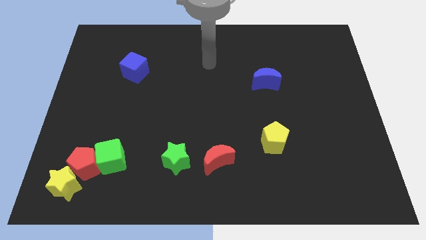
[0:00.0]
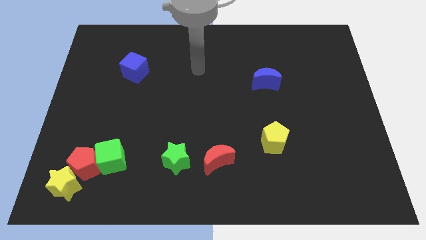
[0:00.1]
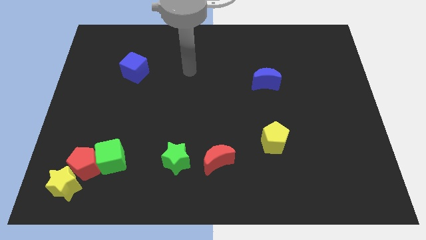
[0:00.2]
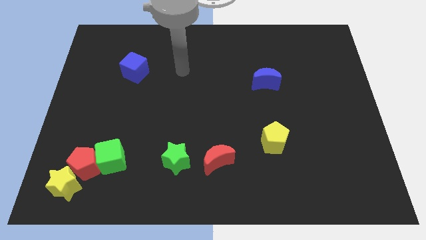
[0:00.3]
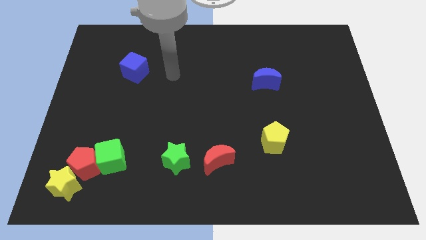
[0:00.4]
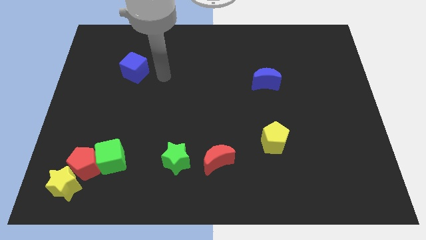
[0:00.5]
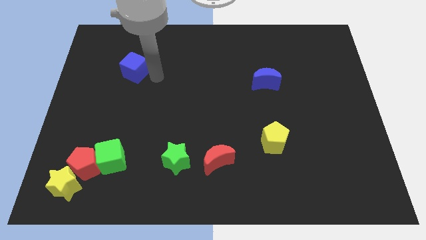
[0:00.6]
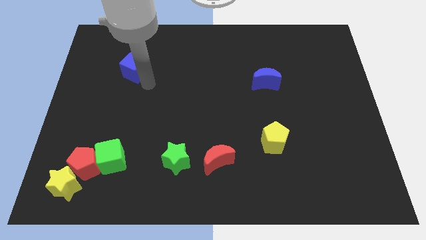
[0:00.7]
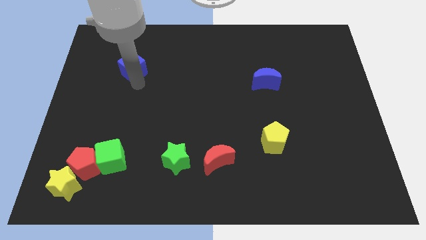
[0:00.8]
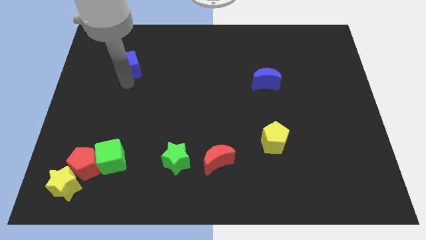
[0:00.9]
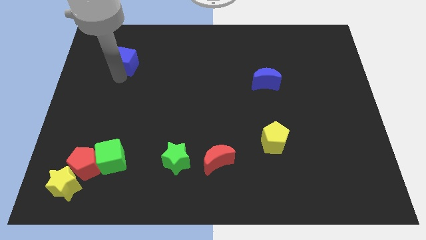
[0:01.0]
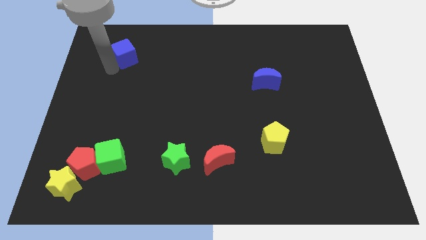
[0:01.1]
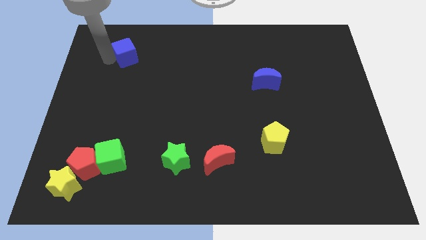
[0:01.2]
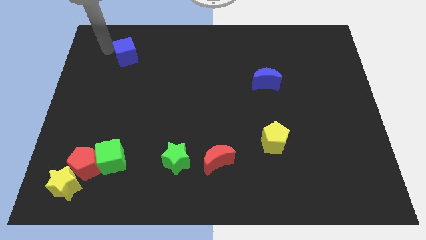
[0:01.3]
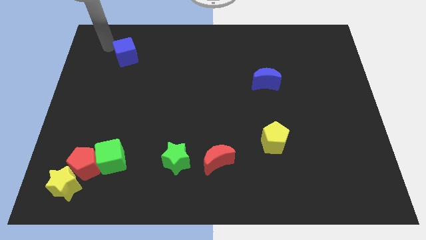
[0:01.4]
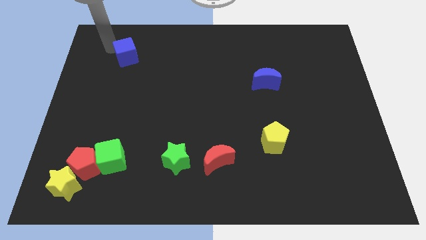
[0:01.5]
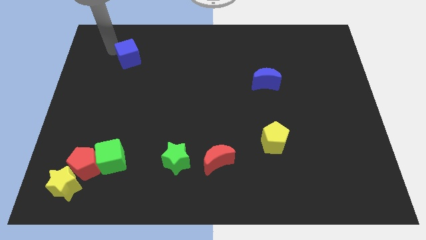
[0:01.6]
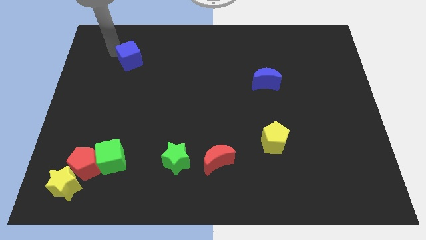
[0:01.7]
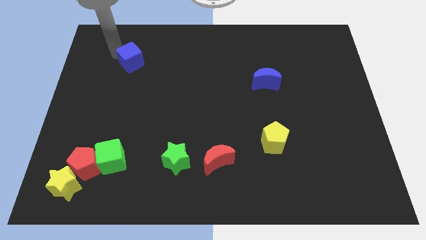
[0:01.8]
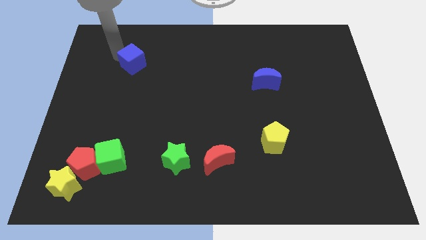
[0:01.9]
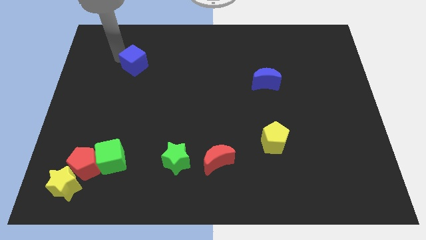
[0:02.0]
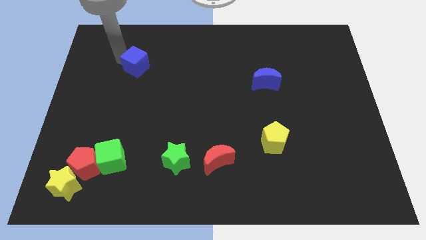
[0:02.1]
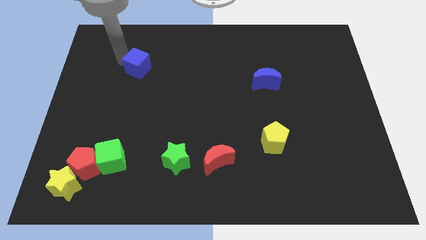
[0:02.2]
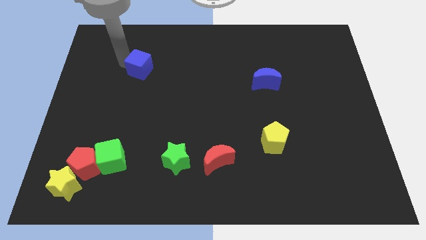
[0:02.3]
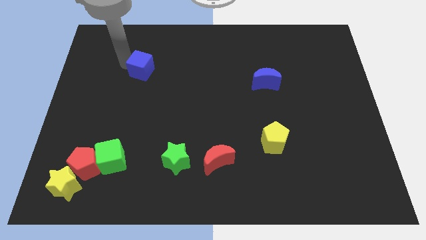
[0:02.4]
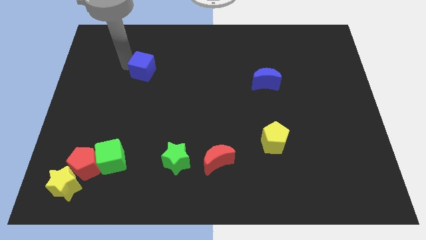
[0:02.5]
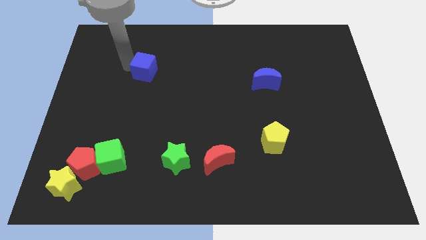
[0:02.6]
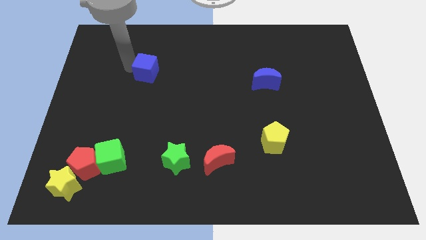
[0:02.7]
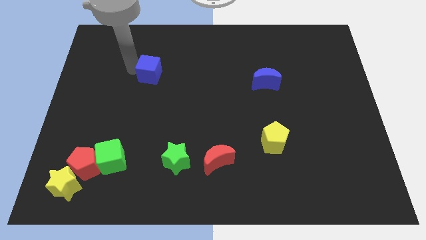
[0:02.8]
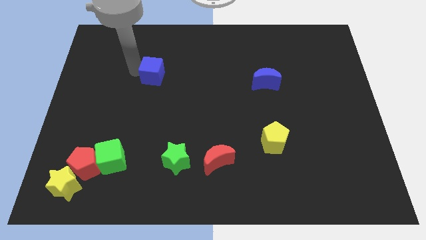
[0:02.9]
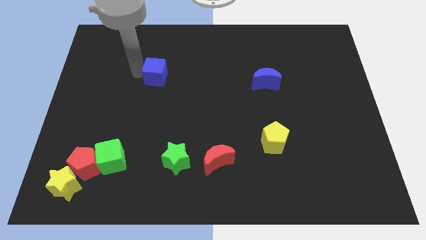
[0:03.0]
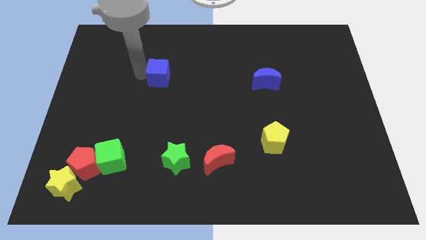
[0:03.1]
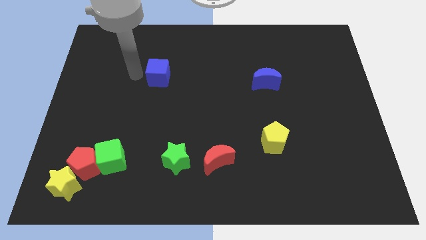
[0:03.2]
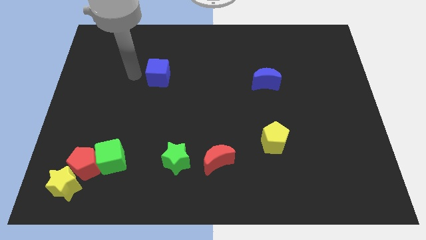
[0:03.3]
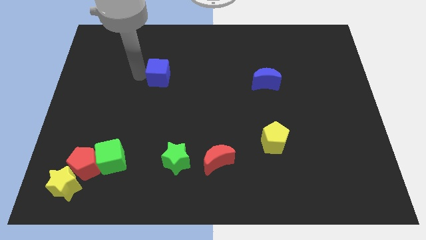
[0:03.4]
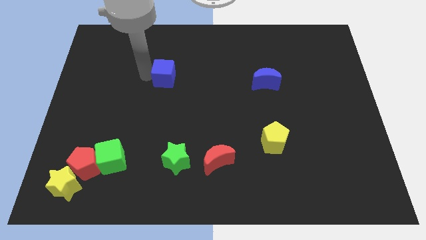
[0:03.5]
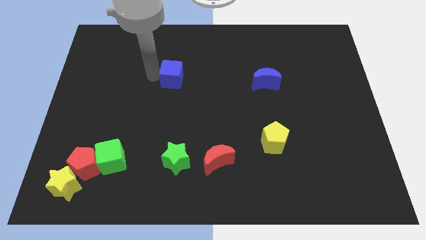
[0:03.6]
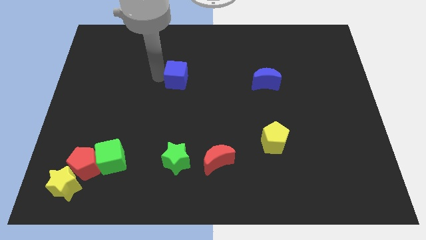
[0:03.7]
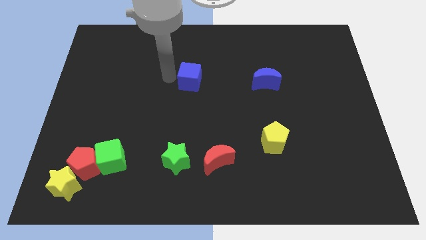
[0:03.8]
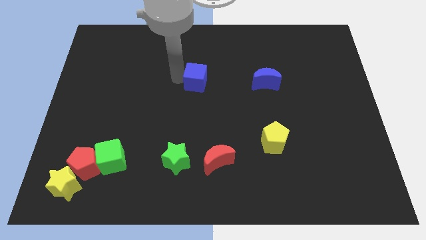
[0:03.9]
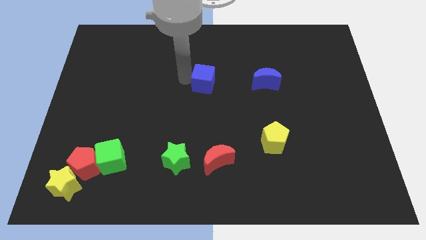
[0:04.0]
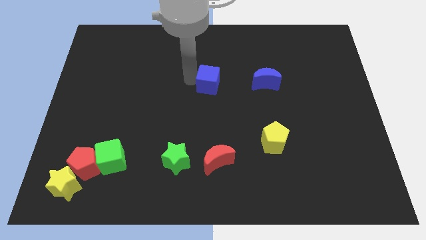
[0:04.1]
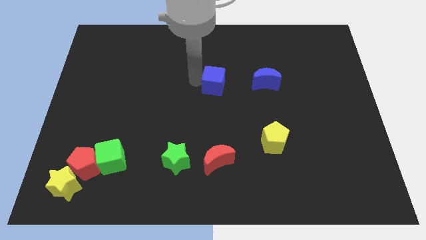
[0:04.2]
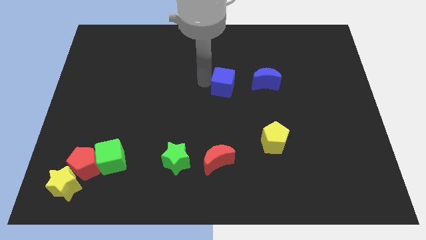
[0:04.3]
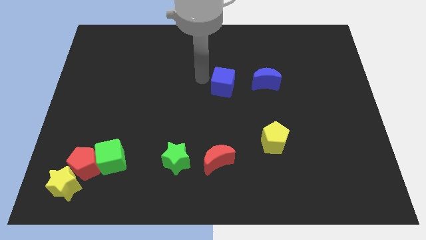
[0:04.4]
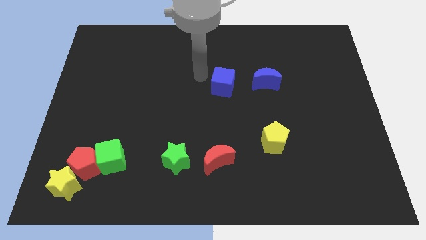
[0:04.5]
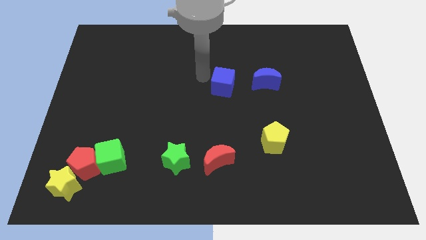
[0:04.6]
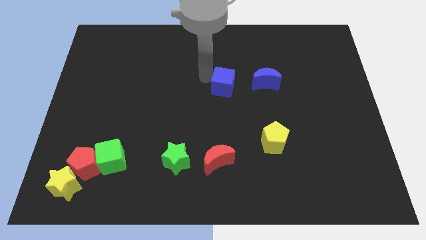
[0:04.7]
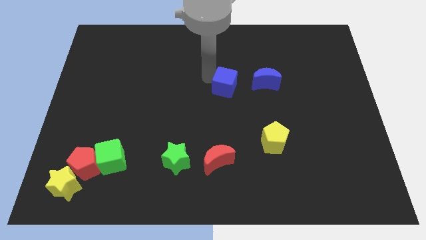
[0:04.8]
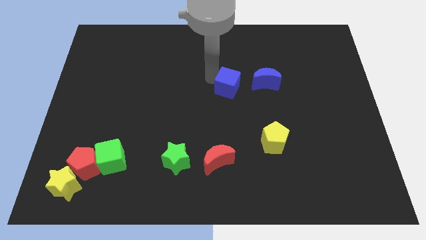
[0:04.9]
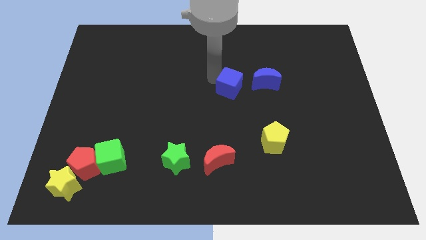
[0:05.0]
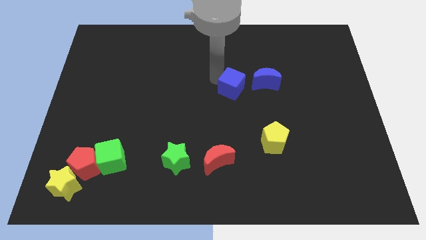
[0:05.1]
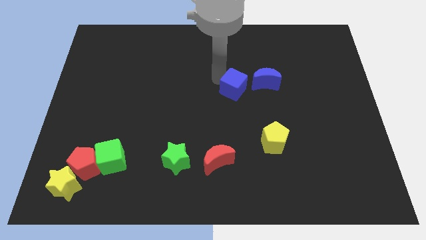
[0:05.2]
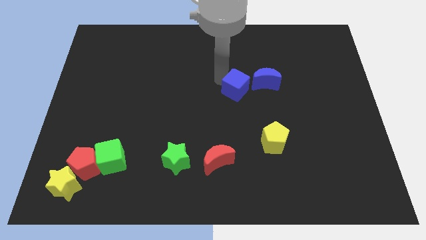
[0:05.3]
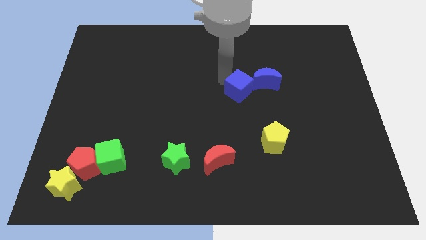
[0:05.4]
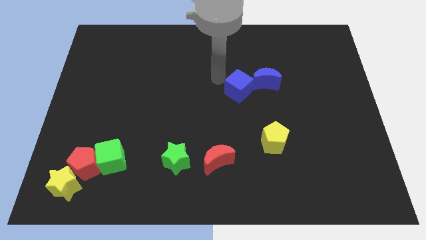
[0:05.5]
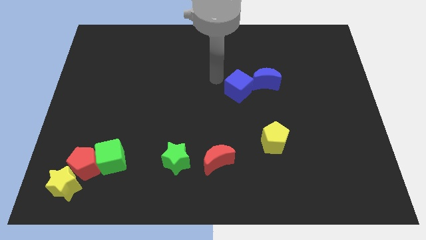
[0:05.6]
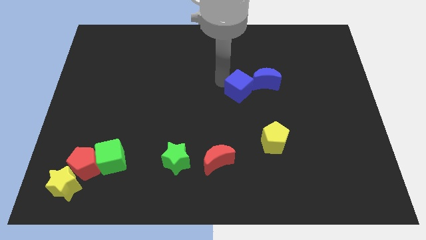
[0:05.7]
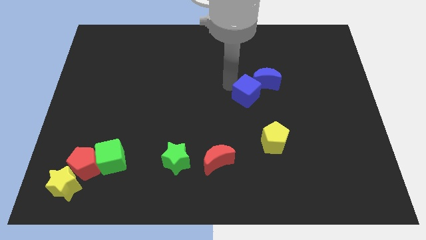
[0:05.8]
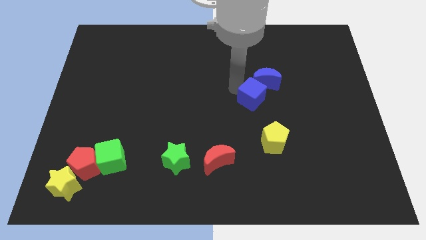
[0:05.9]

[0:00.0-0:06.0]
put the blue cube above the yellow pentagon
